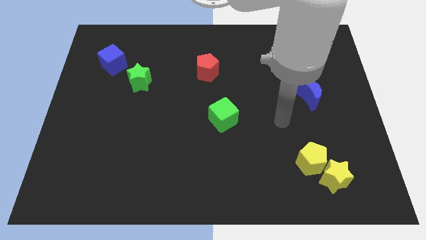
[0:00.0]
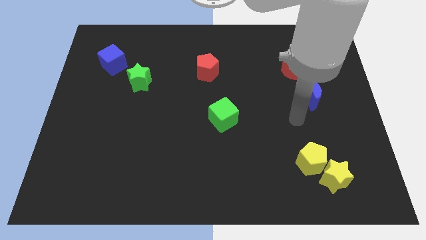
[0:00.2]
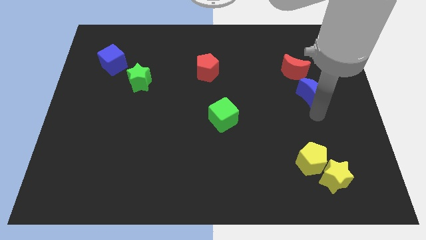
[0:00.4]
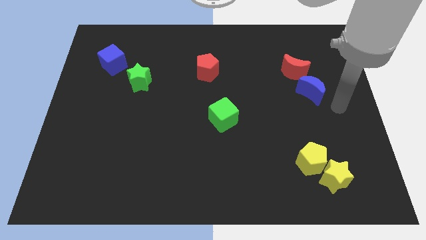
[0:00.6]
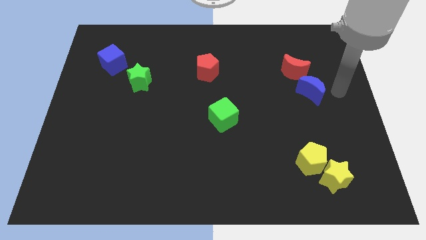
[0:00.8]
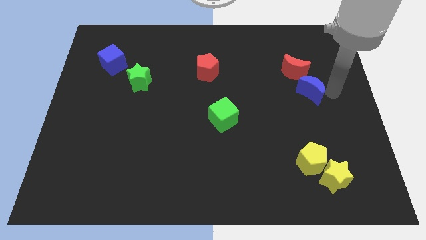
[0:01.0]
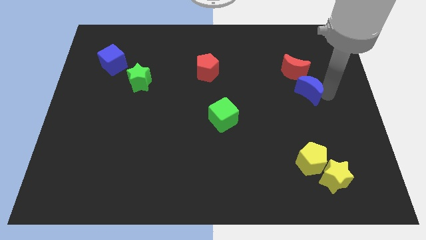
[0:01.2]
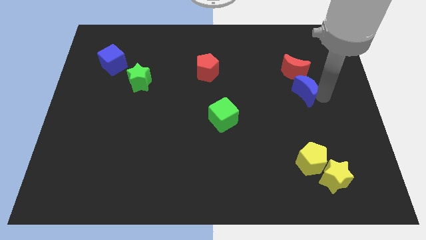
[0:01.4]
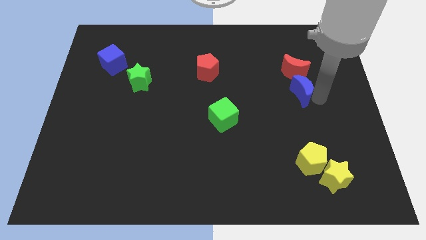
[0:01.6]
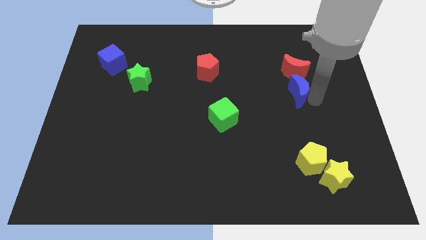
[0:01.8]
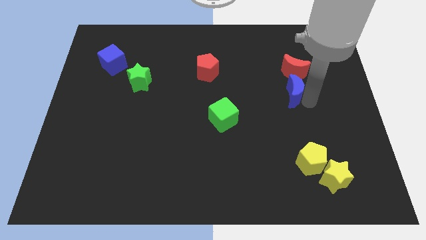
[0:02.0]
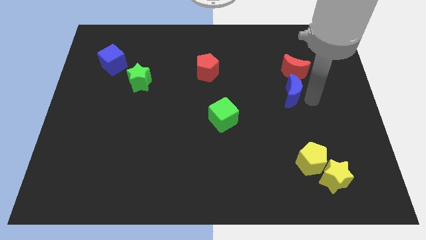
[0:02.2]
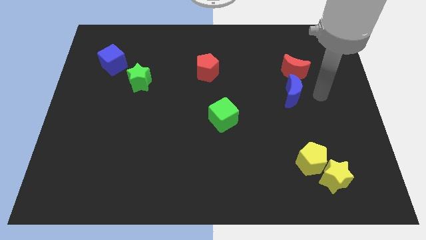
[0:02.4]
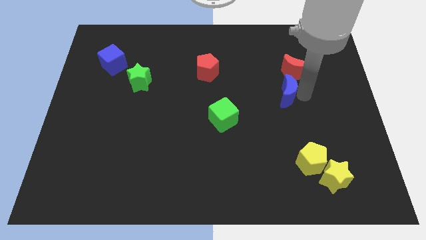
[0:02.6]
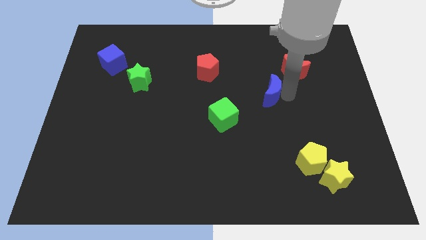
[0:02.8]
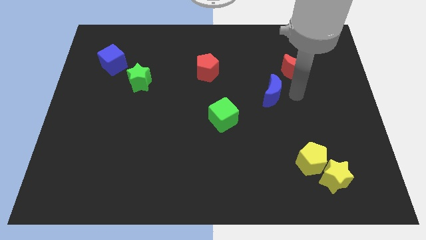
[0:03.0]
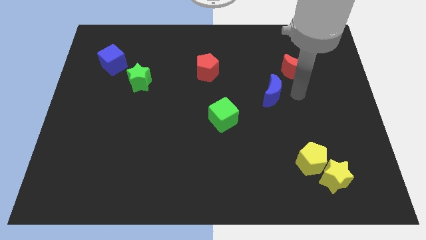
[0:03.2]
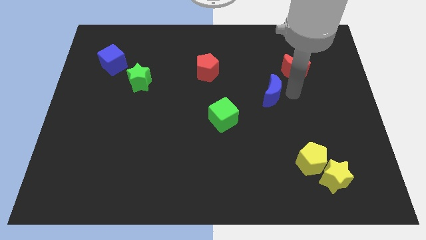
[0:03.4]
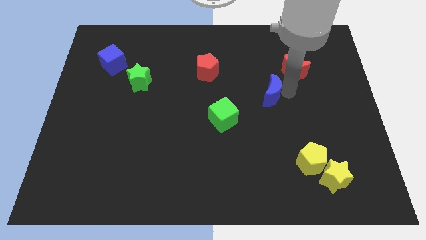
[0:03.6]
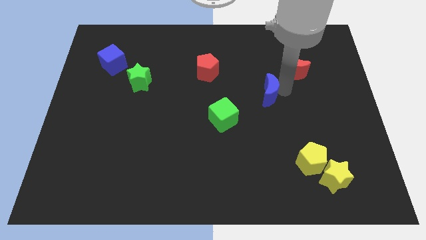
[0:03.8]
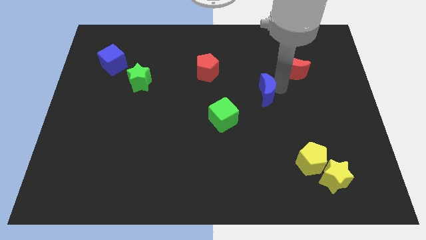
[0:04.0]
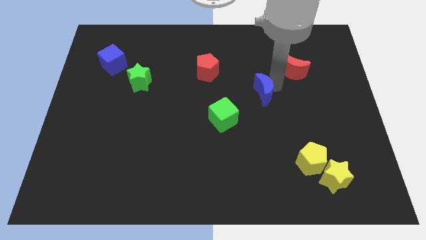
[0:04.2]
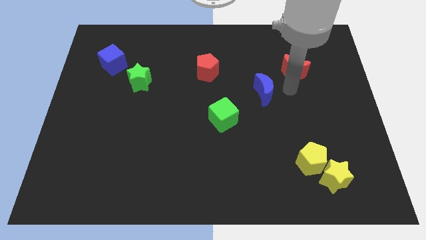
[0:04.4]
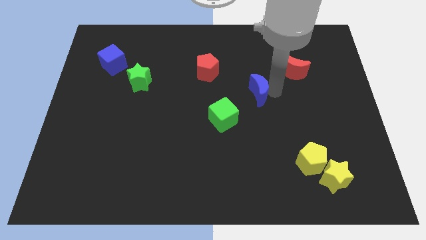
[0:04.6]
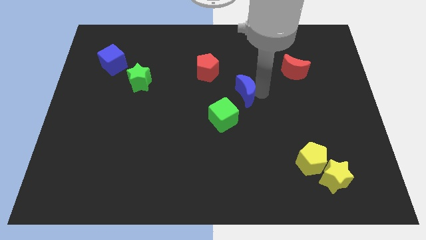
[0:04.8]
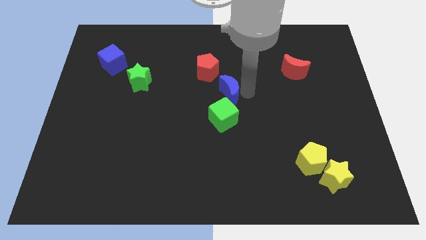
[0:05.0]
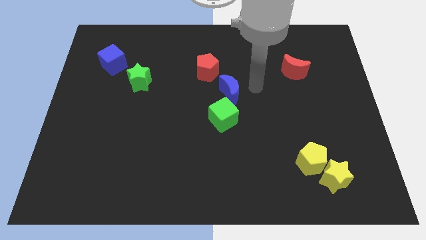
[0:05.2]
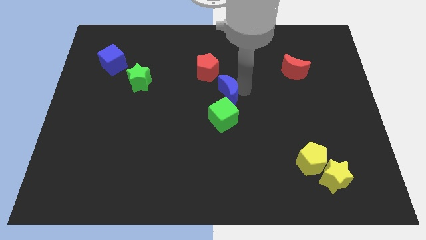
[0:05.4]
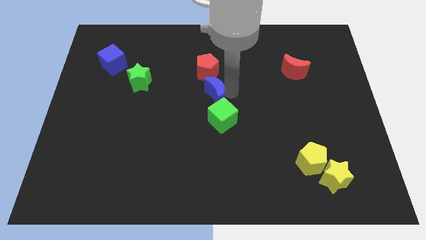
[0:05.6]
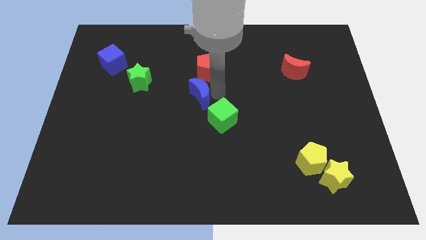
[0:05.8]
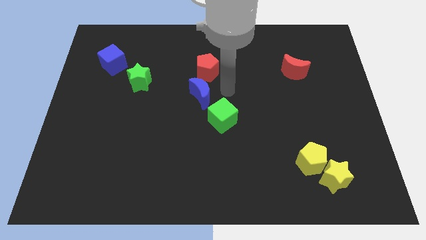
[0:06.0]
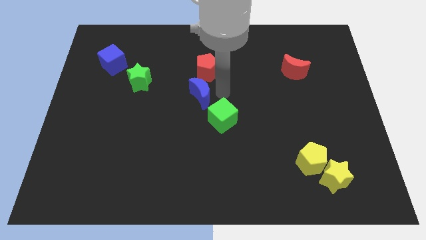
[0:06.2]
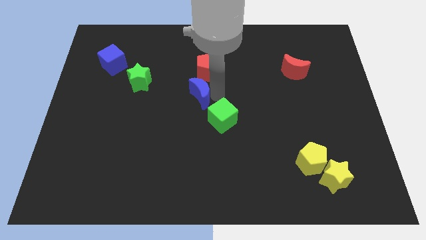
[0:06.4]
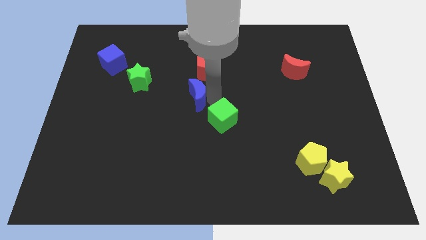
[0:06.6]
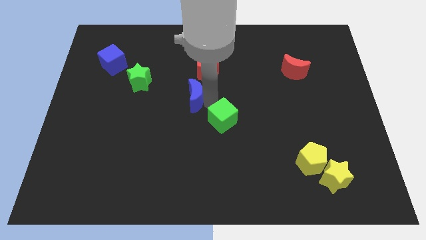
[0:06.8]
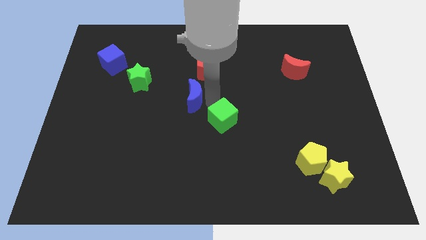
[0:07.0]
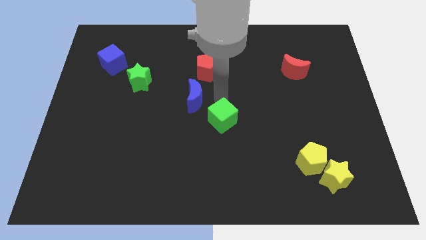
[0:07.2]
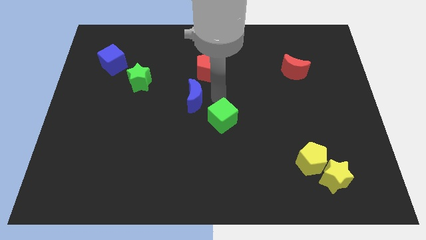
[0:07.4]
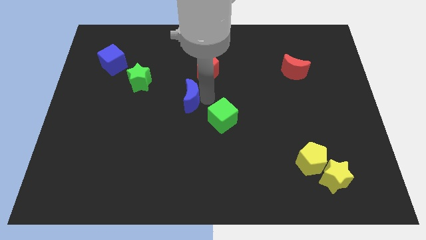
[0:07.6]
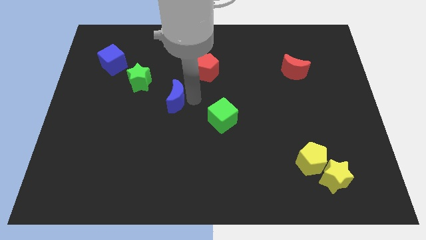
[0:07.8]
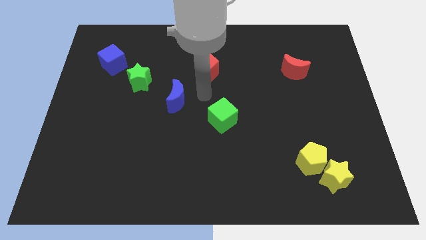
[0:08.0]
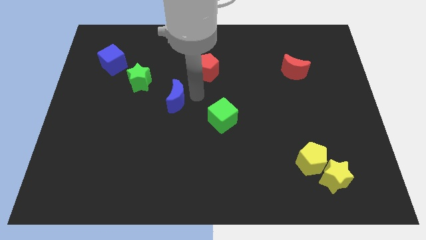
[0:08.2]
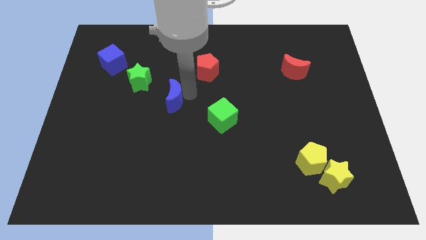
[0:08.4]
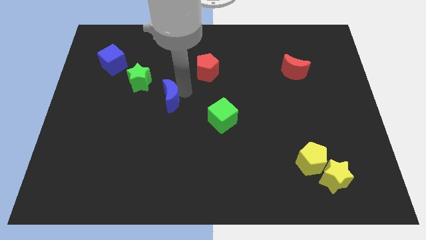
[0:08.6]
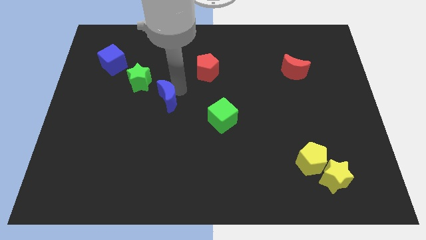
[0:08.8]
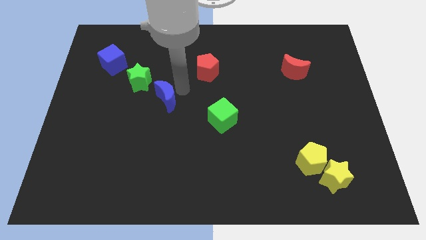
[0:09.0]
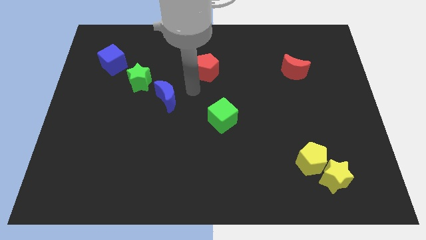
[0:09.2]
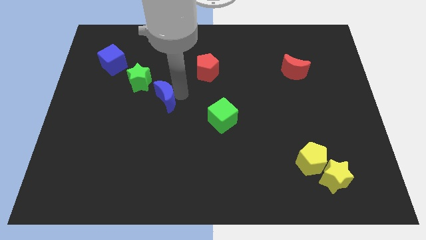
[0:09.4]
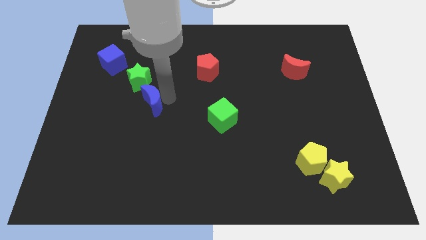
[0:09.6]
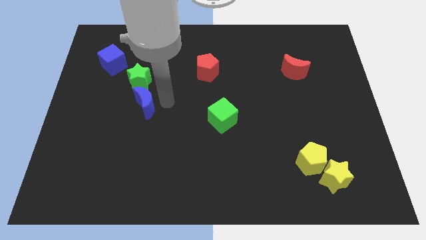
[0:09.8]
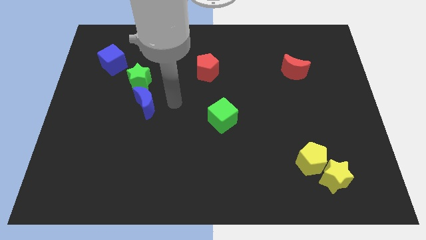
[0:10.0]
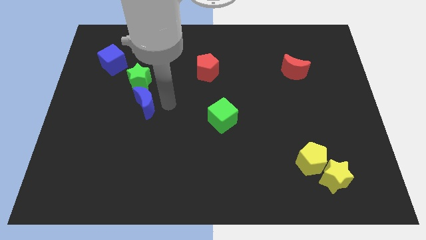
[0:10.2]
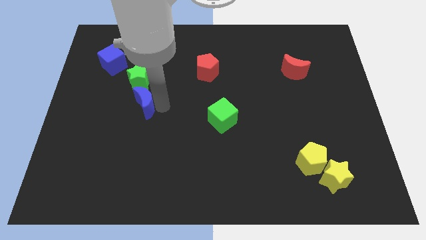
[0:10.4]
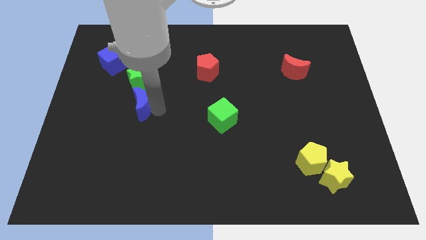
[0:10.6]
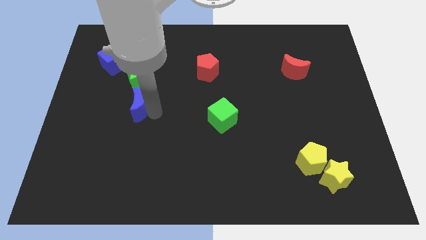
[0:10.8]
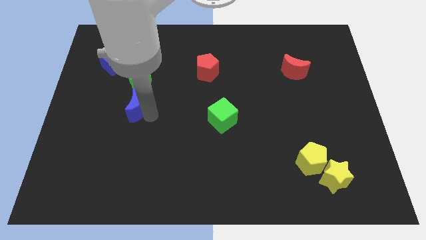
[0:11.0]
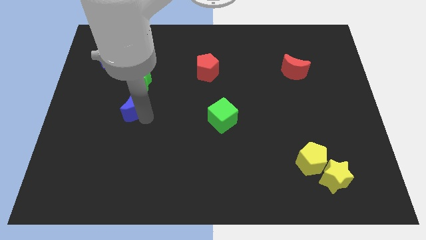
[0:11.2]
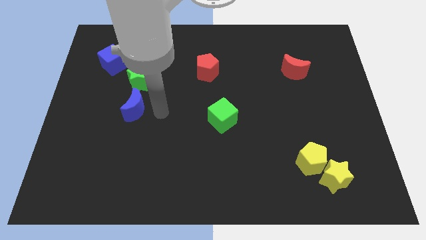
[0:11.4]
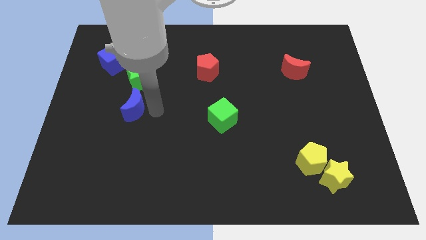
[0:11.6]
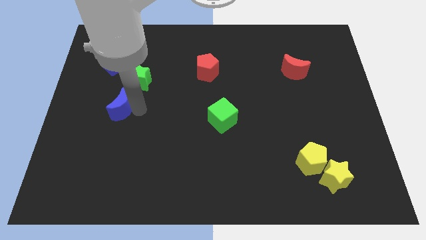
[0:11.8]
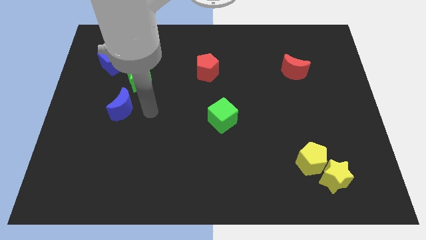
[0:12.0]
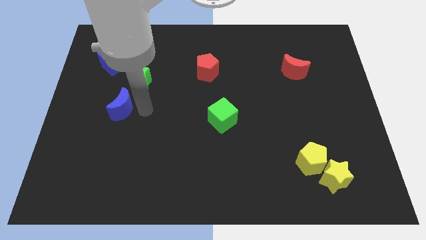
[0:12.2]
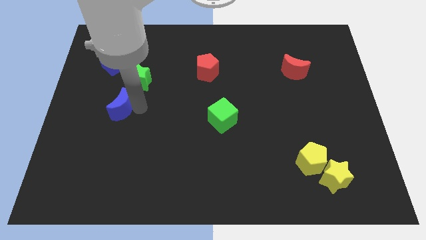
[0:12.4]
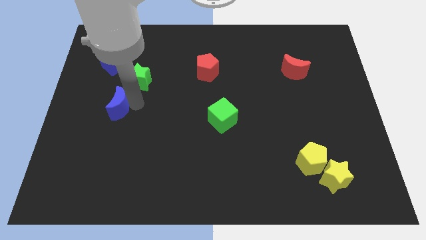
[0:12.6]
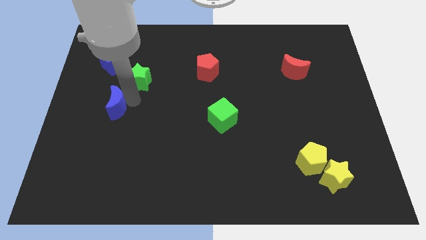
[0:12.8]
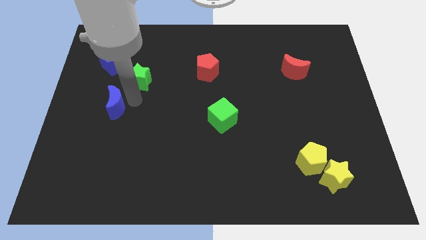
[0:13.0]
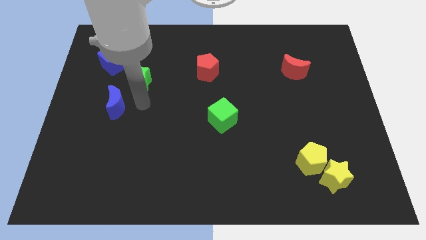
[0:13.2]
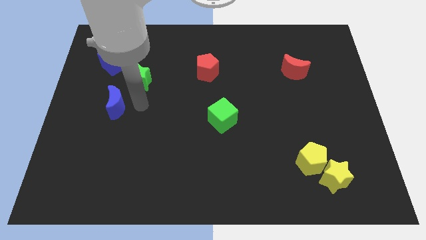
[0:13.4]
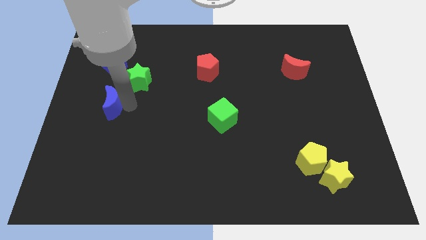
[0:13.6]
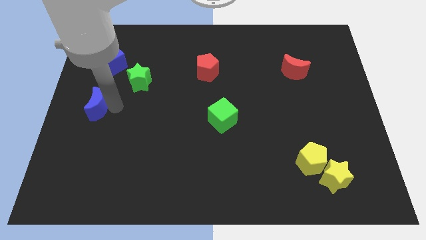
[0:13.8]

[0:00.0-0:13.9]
put the blue moon to the left side
